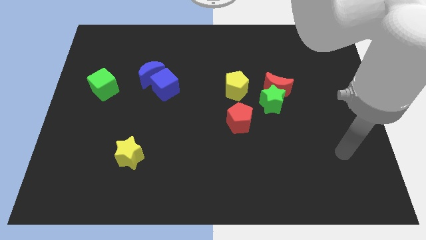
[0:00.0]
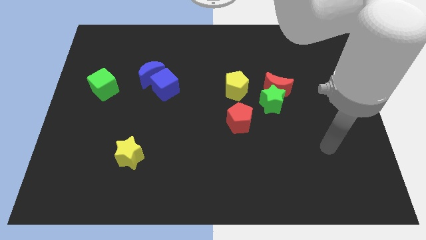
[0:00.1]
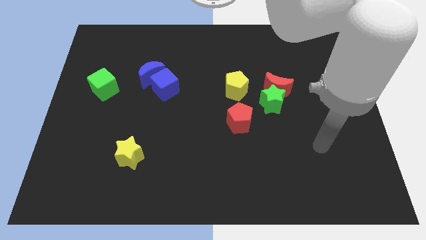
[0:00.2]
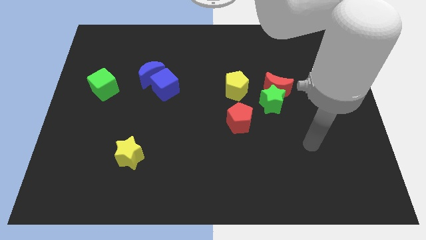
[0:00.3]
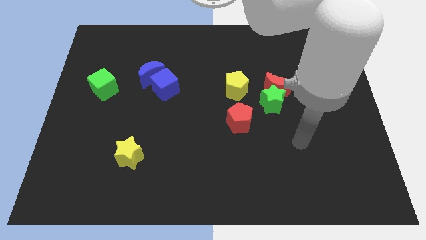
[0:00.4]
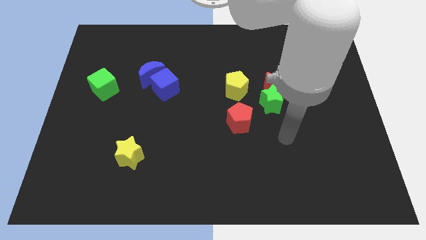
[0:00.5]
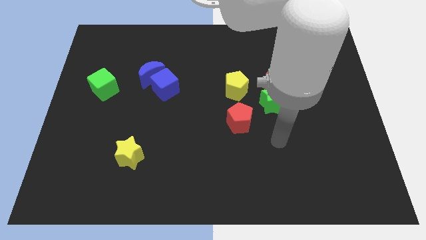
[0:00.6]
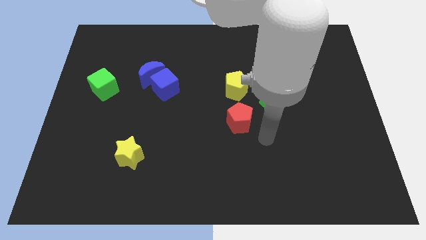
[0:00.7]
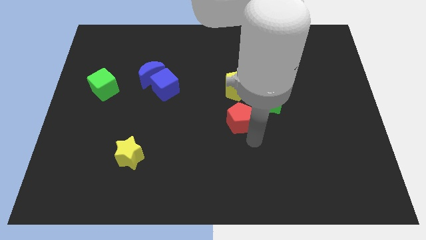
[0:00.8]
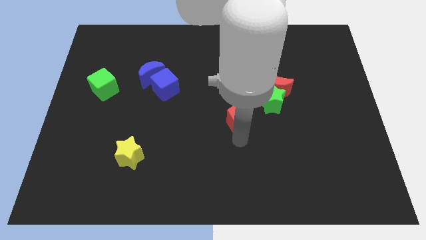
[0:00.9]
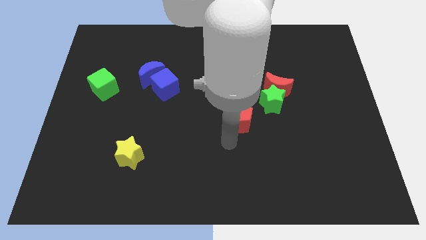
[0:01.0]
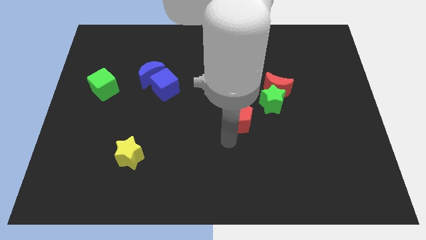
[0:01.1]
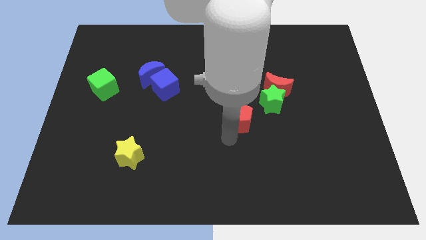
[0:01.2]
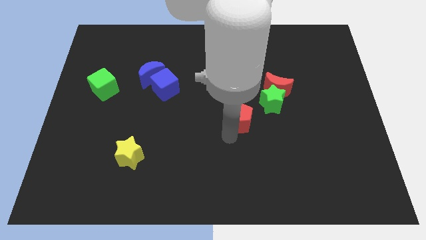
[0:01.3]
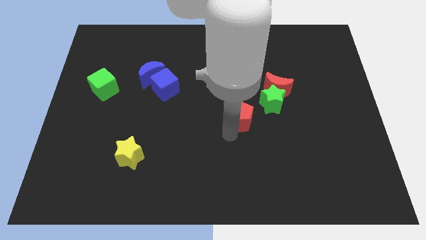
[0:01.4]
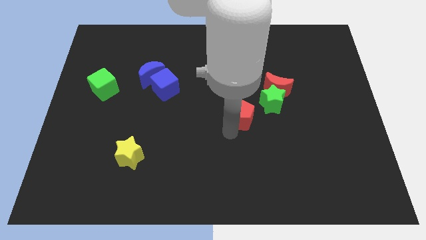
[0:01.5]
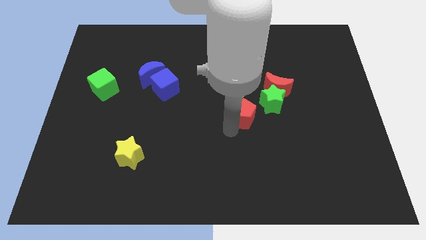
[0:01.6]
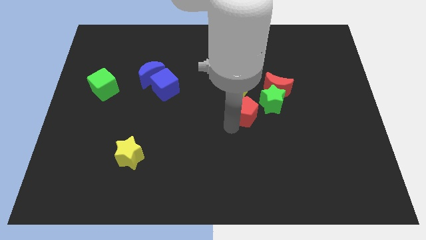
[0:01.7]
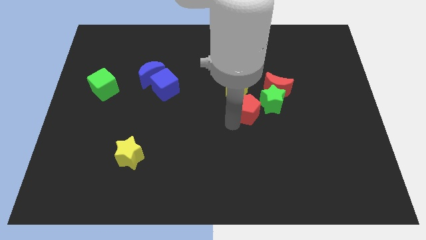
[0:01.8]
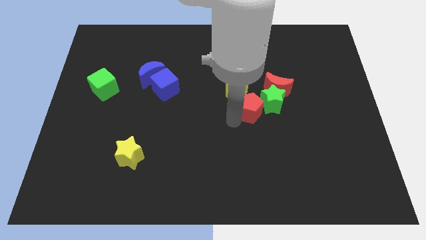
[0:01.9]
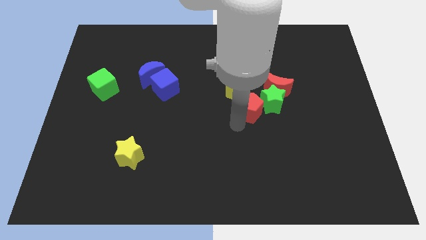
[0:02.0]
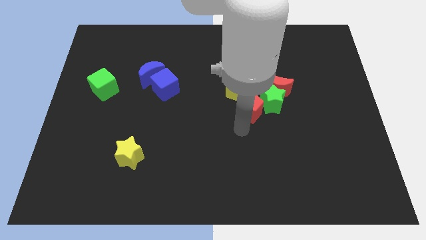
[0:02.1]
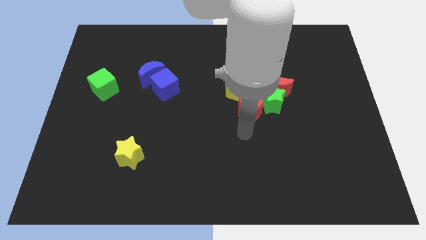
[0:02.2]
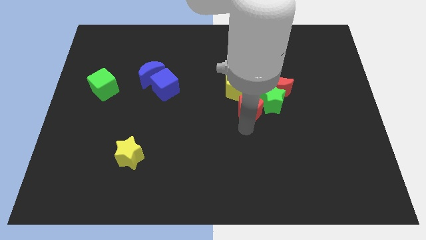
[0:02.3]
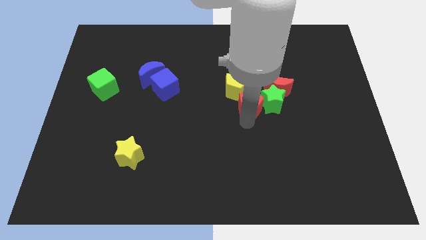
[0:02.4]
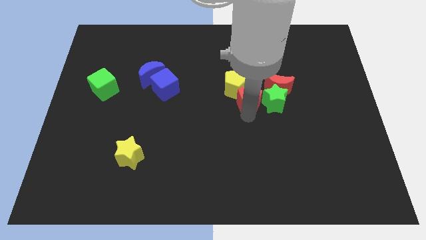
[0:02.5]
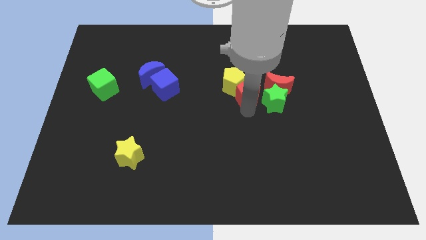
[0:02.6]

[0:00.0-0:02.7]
slide the red pentagon upwards somewhat

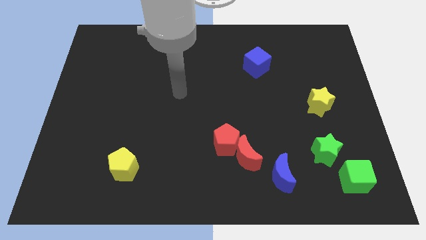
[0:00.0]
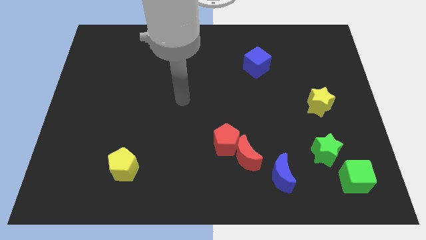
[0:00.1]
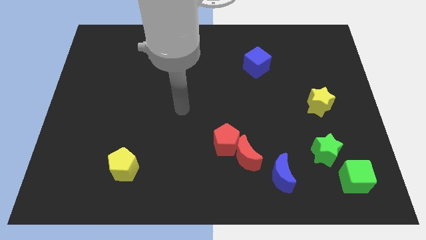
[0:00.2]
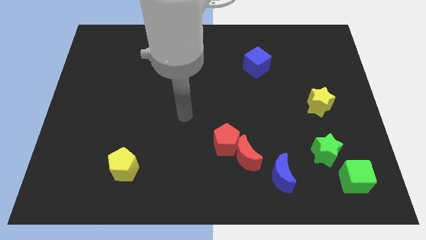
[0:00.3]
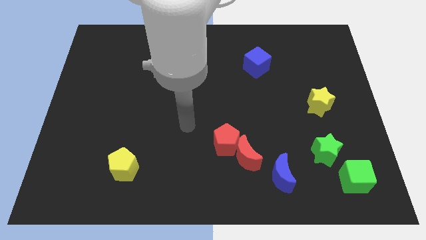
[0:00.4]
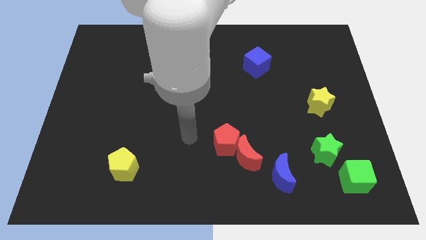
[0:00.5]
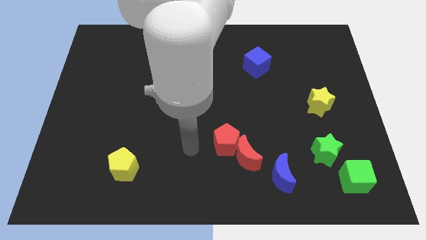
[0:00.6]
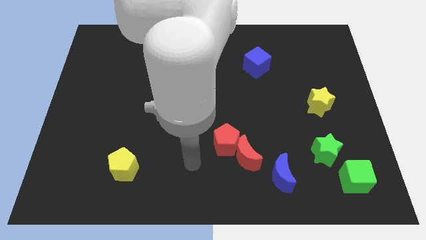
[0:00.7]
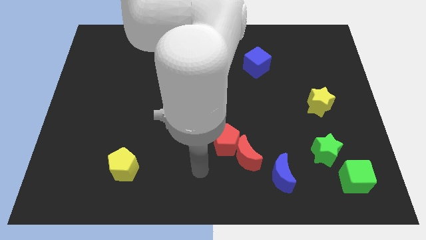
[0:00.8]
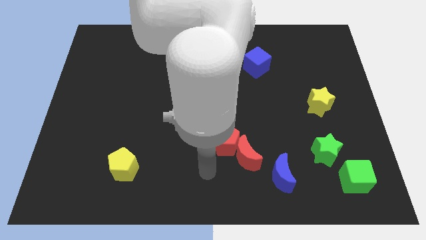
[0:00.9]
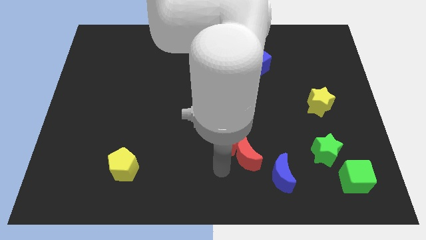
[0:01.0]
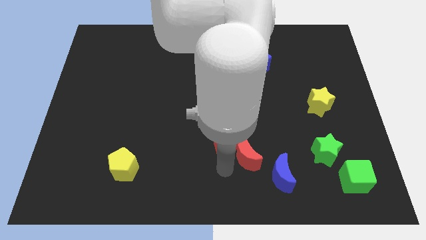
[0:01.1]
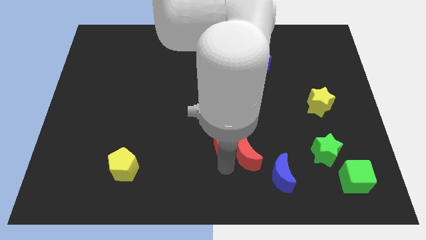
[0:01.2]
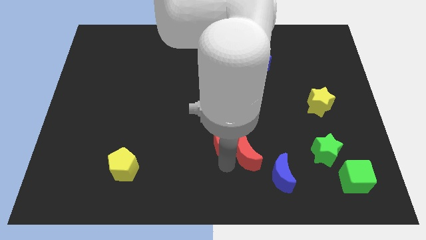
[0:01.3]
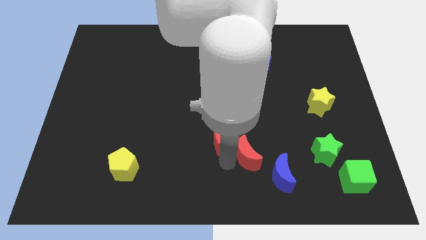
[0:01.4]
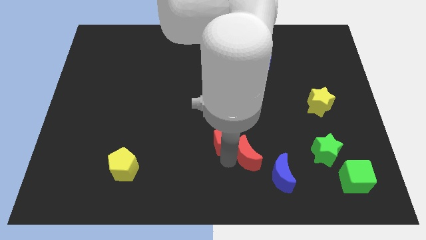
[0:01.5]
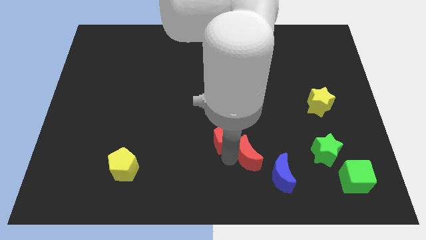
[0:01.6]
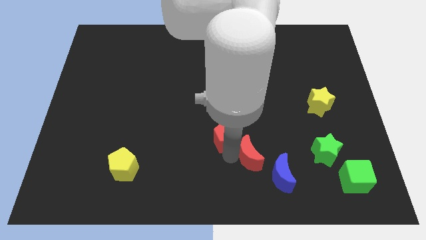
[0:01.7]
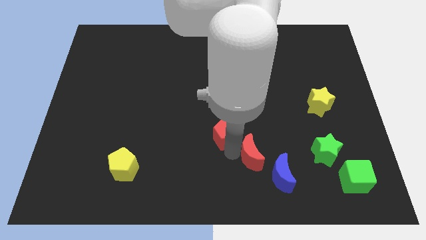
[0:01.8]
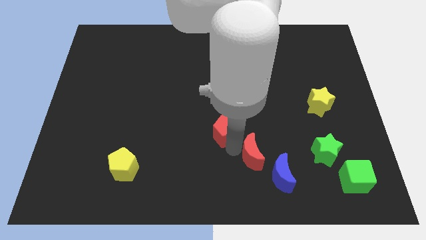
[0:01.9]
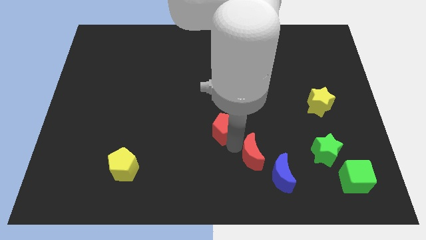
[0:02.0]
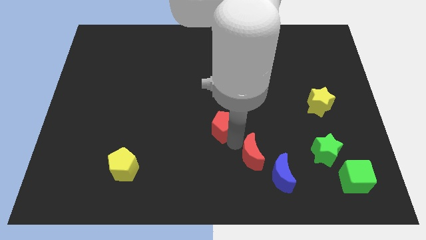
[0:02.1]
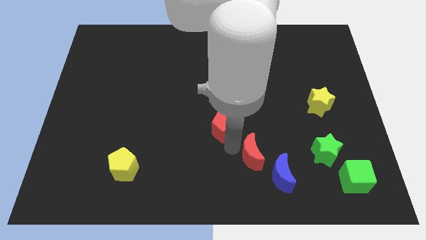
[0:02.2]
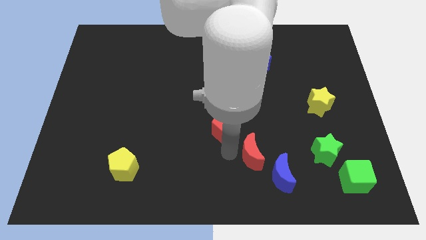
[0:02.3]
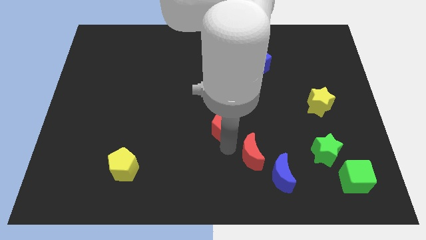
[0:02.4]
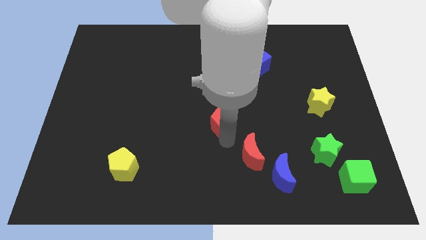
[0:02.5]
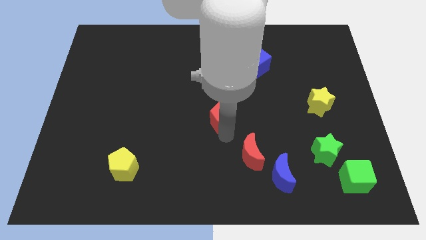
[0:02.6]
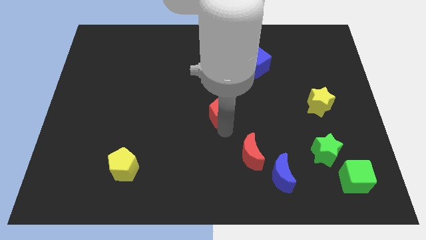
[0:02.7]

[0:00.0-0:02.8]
push the red pentagon upwards a bit

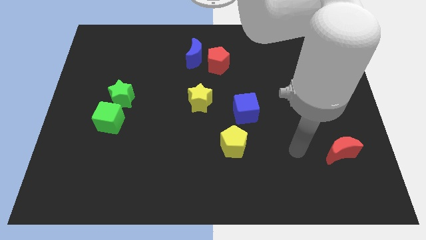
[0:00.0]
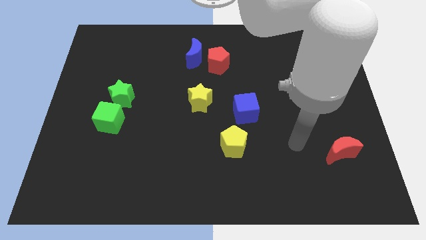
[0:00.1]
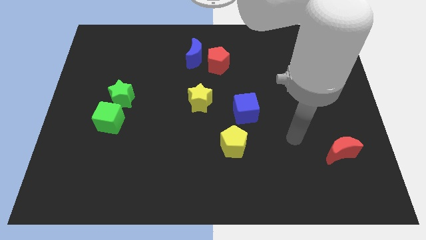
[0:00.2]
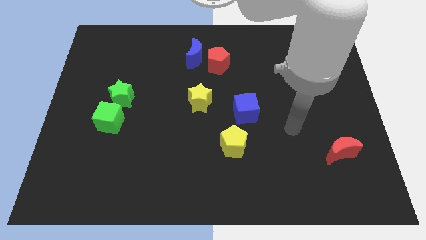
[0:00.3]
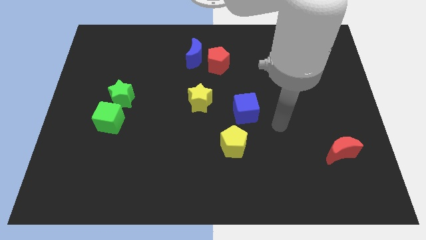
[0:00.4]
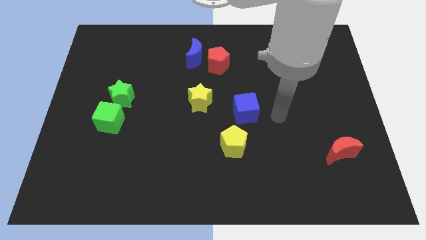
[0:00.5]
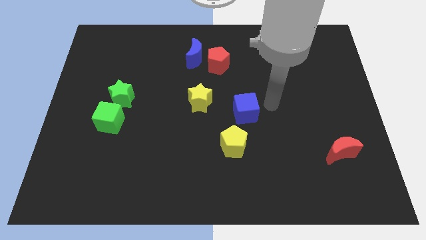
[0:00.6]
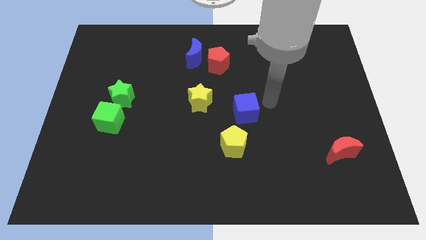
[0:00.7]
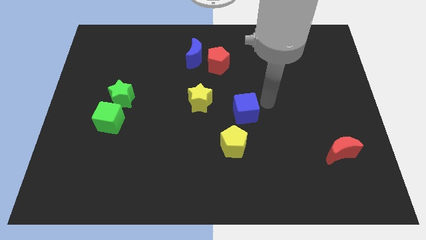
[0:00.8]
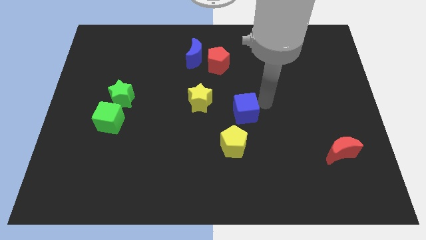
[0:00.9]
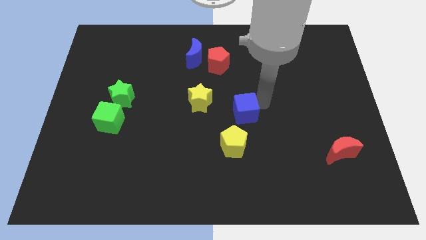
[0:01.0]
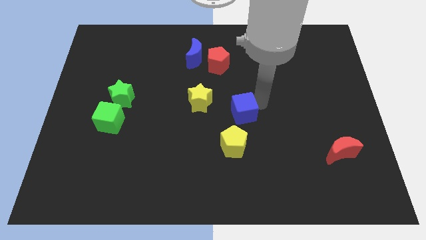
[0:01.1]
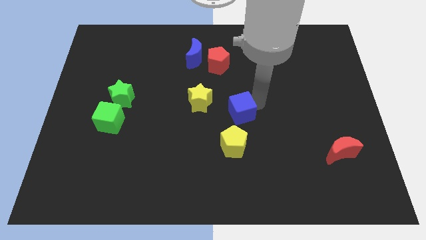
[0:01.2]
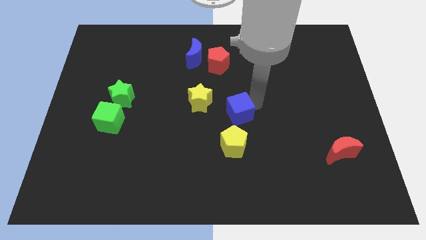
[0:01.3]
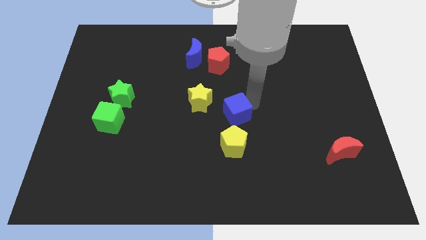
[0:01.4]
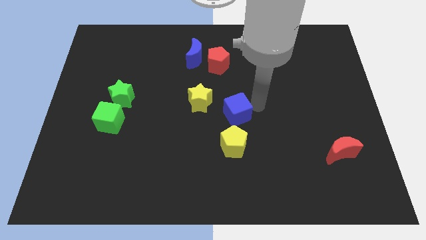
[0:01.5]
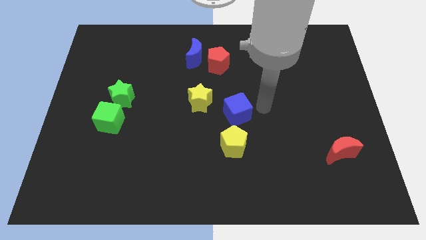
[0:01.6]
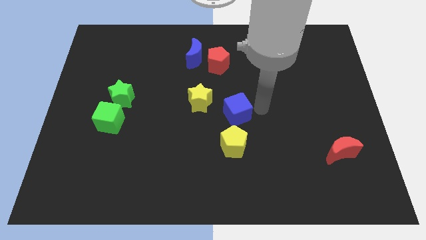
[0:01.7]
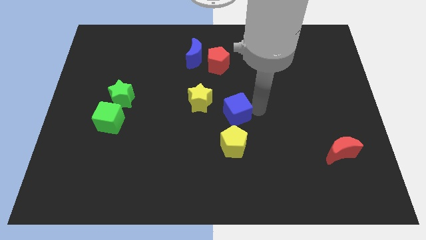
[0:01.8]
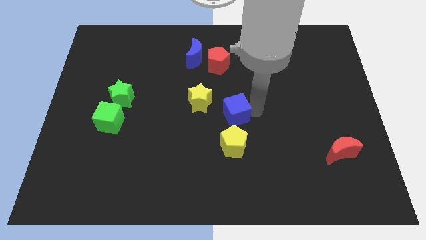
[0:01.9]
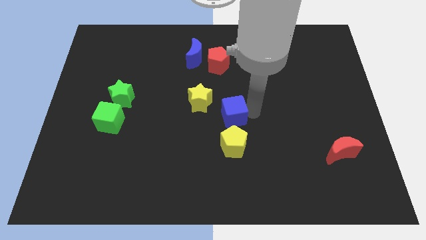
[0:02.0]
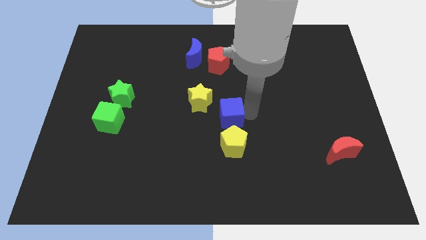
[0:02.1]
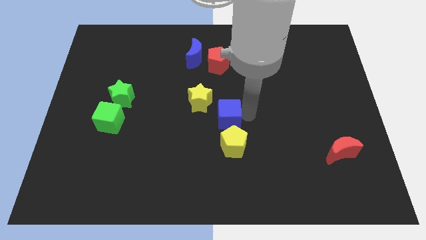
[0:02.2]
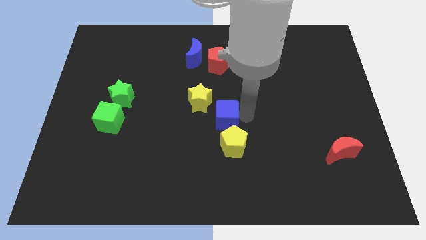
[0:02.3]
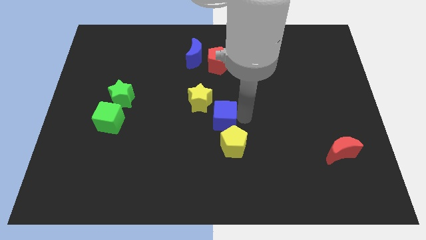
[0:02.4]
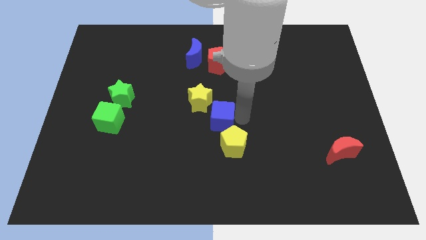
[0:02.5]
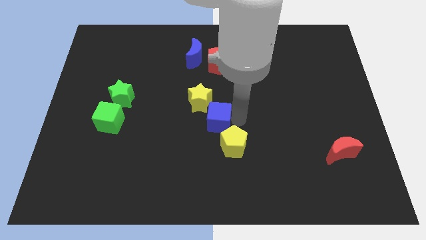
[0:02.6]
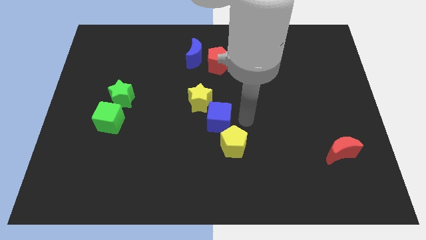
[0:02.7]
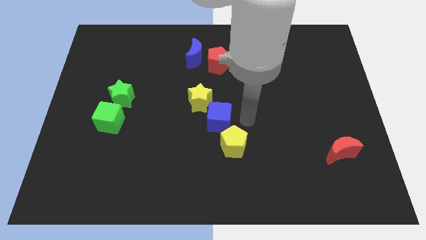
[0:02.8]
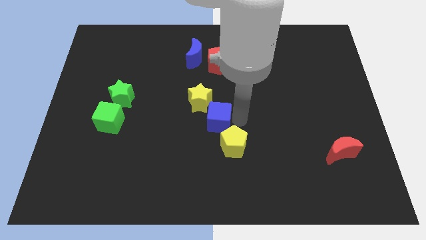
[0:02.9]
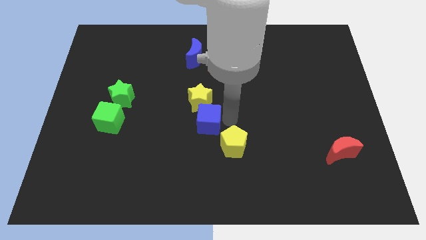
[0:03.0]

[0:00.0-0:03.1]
slightly push the blue cube left
